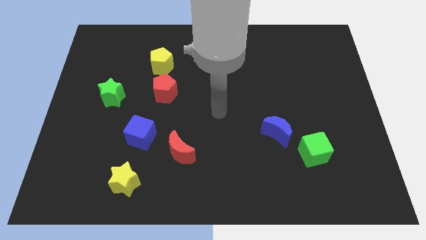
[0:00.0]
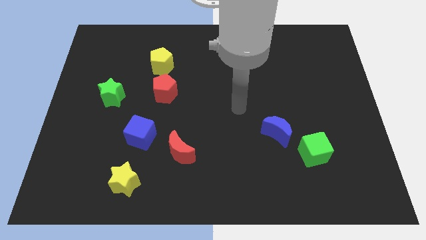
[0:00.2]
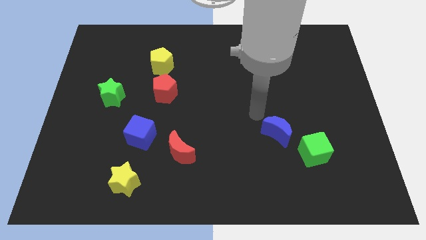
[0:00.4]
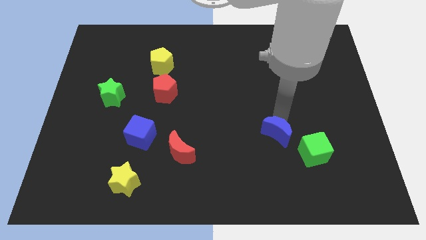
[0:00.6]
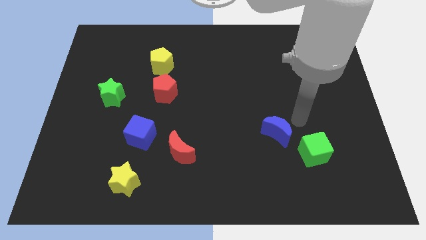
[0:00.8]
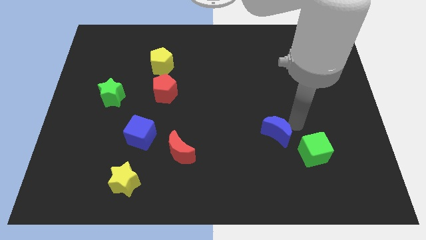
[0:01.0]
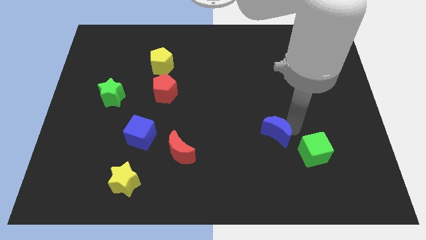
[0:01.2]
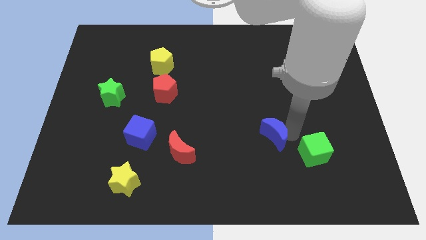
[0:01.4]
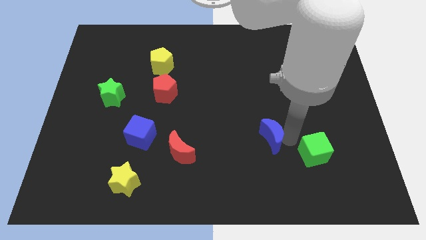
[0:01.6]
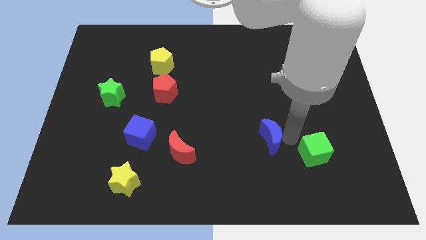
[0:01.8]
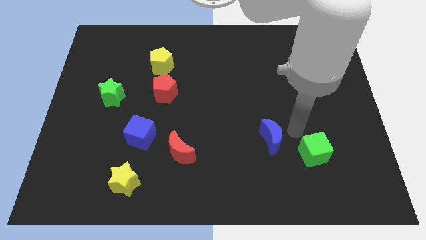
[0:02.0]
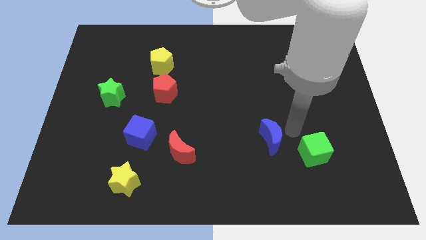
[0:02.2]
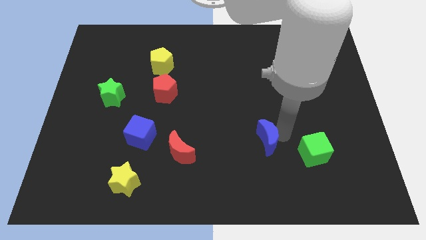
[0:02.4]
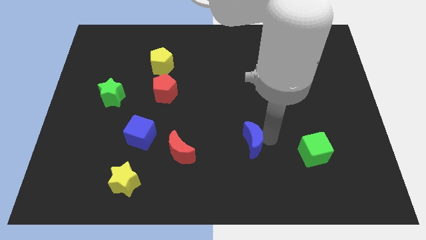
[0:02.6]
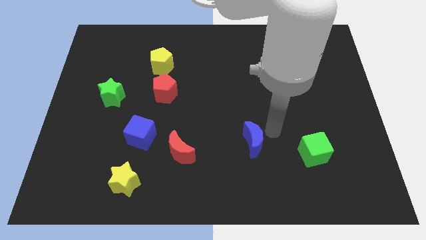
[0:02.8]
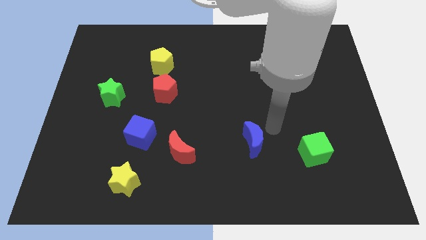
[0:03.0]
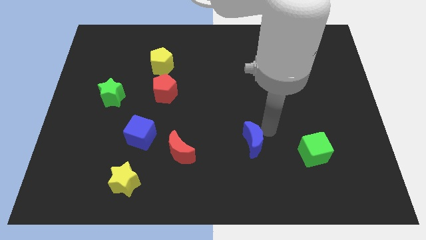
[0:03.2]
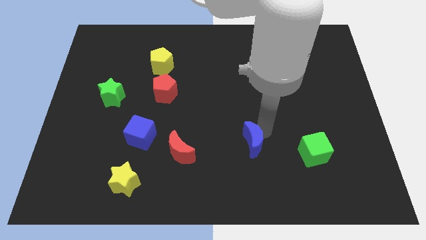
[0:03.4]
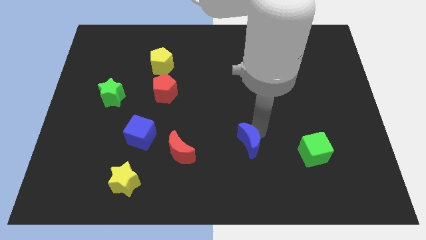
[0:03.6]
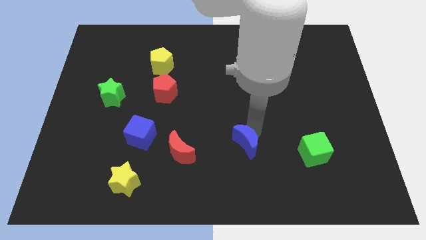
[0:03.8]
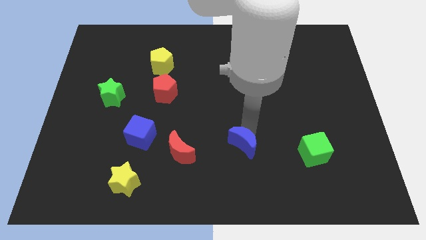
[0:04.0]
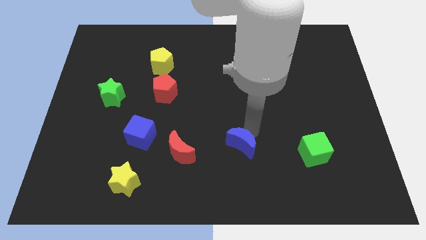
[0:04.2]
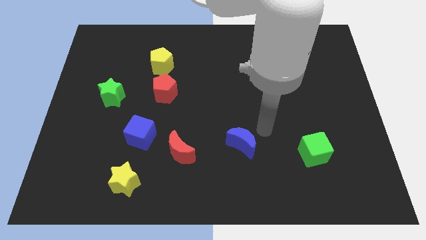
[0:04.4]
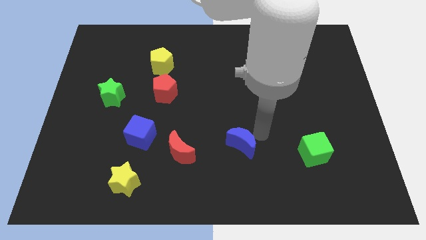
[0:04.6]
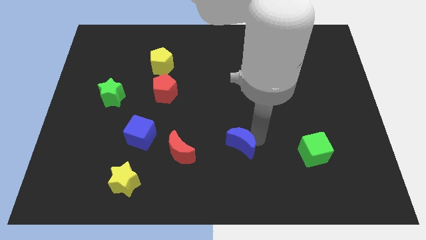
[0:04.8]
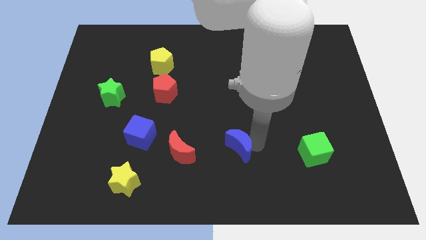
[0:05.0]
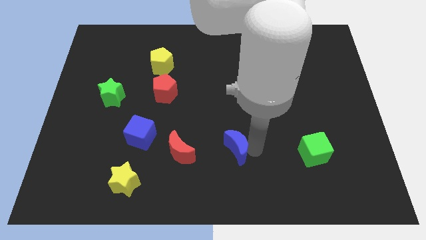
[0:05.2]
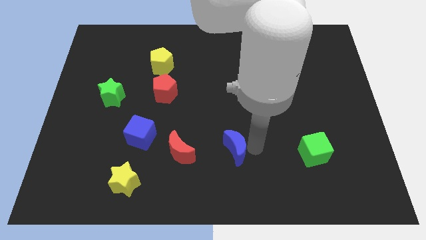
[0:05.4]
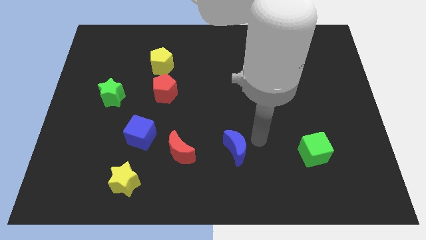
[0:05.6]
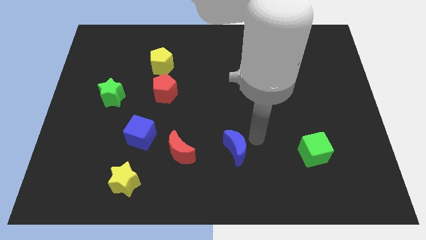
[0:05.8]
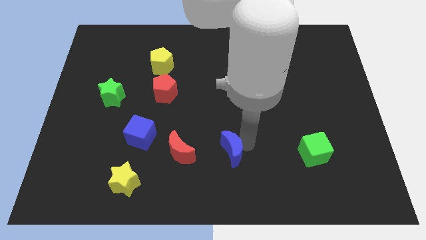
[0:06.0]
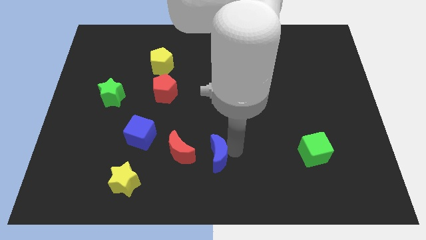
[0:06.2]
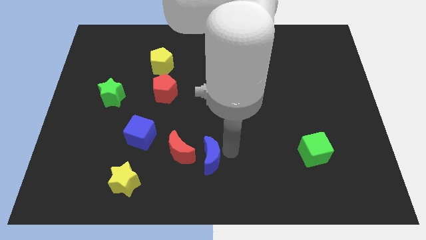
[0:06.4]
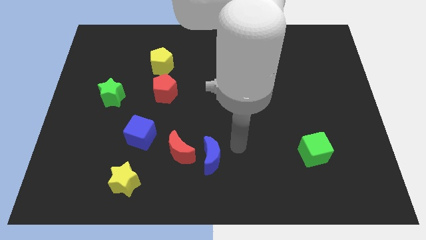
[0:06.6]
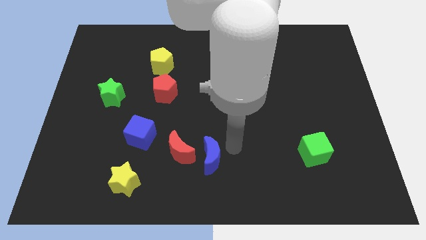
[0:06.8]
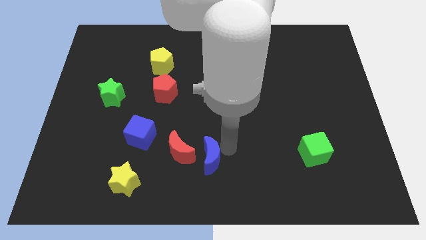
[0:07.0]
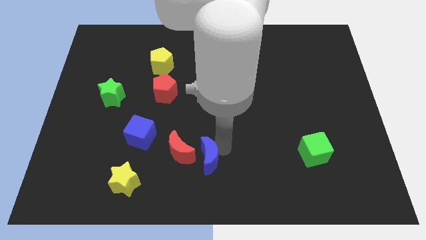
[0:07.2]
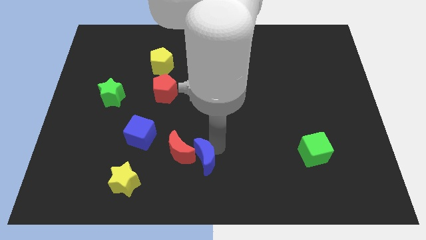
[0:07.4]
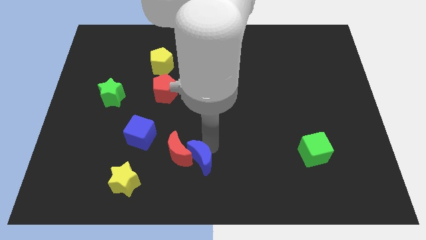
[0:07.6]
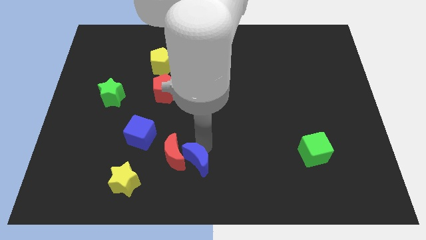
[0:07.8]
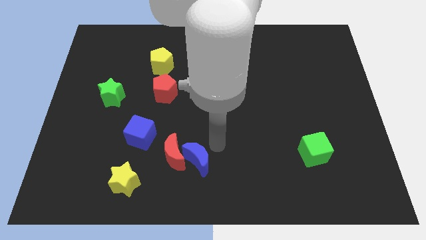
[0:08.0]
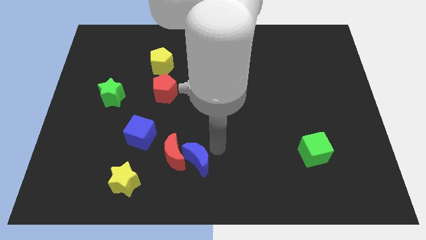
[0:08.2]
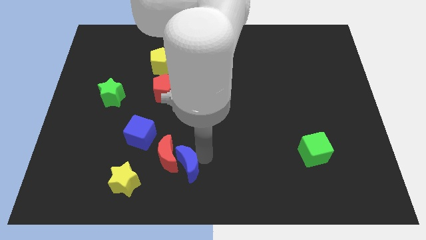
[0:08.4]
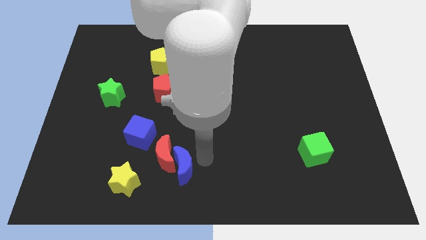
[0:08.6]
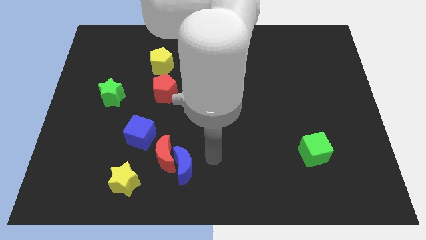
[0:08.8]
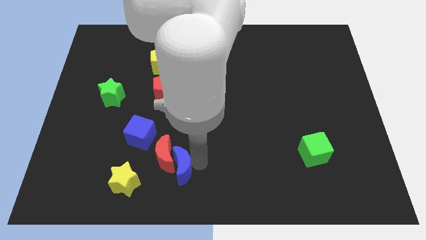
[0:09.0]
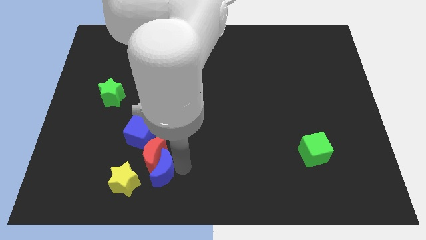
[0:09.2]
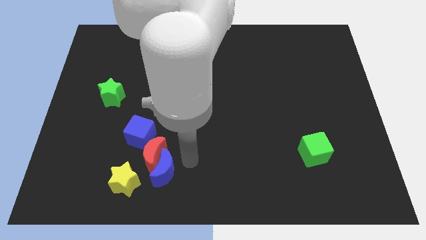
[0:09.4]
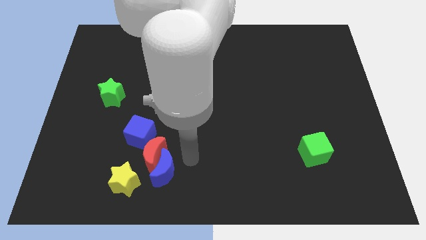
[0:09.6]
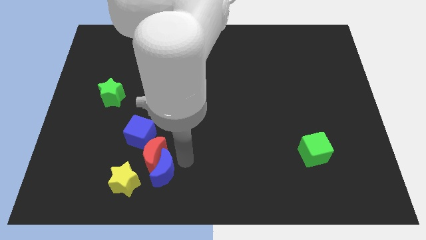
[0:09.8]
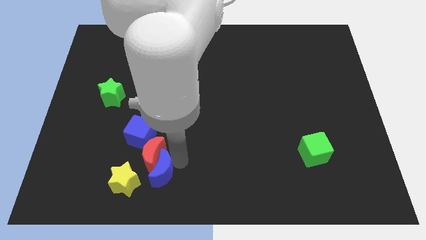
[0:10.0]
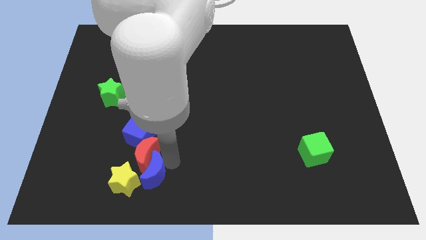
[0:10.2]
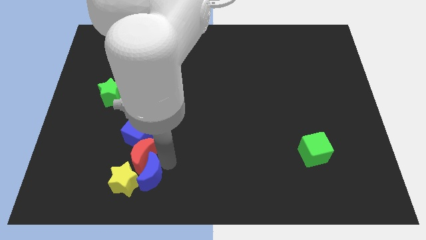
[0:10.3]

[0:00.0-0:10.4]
put the blue moon to the yellow star

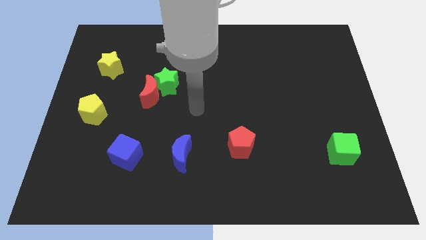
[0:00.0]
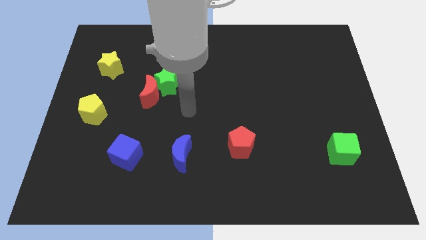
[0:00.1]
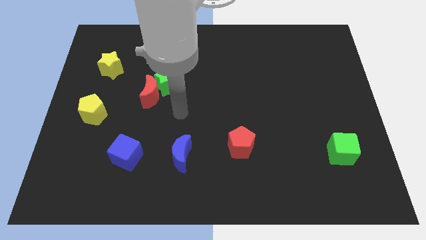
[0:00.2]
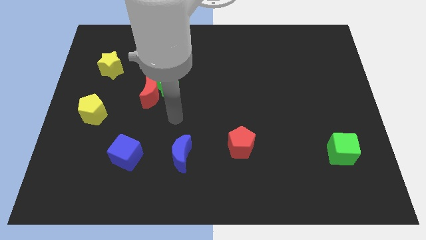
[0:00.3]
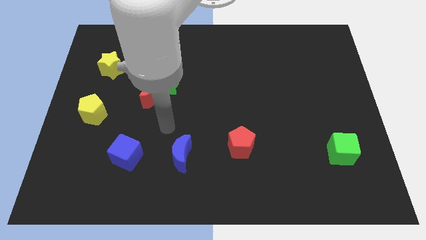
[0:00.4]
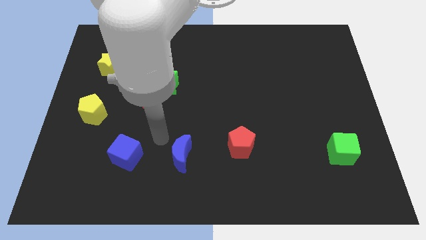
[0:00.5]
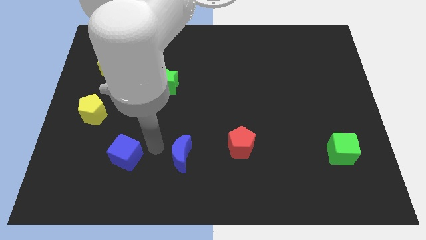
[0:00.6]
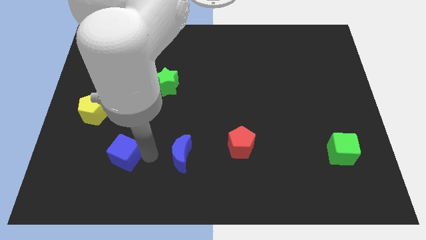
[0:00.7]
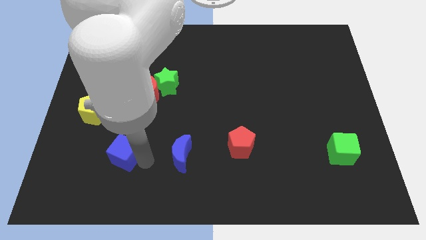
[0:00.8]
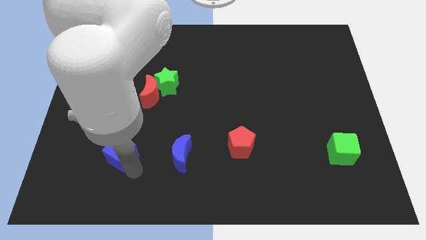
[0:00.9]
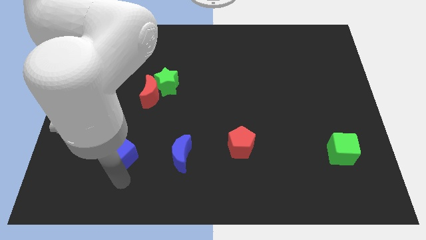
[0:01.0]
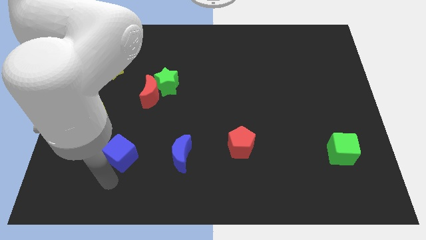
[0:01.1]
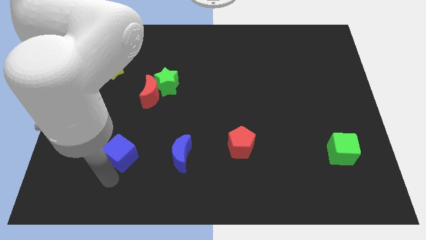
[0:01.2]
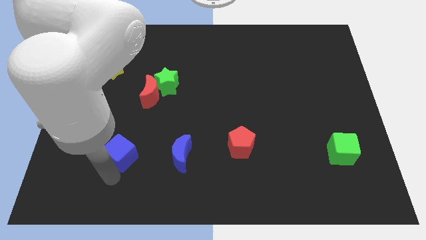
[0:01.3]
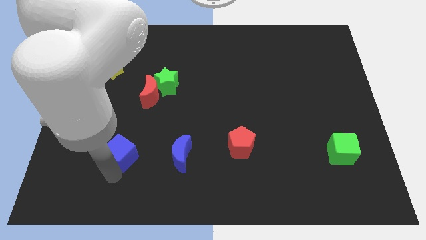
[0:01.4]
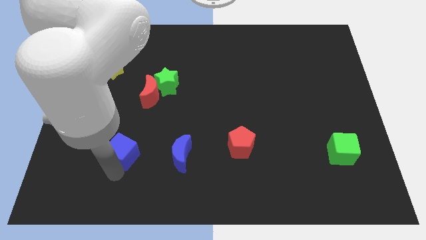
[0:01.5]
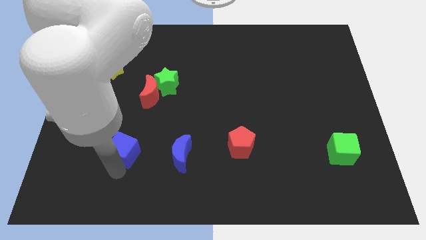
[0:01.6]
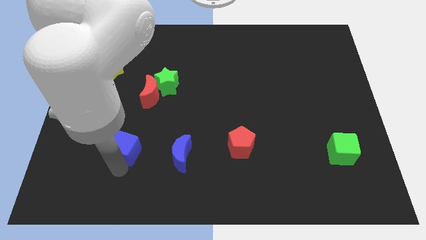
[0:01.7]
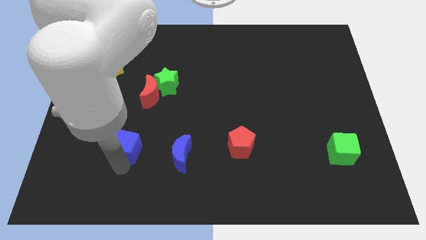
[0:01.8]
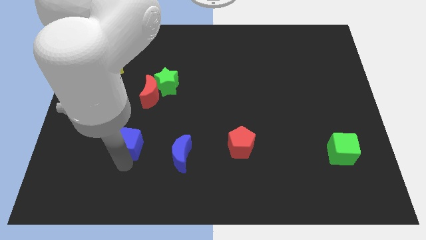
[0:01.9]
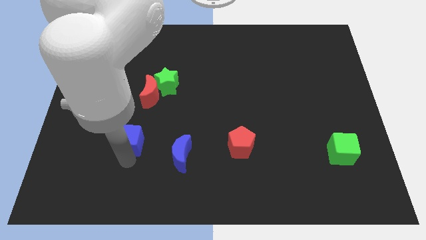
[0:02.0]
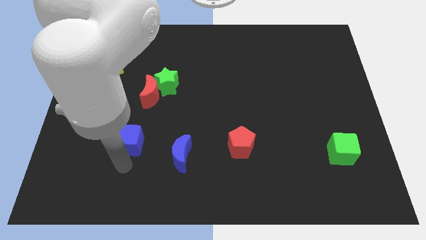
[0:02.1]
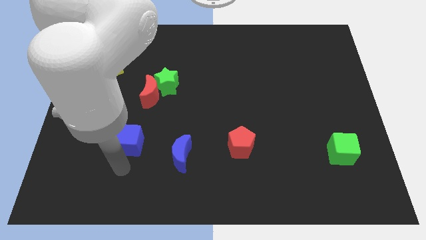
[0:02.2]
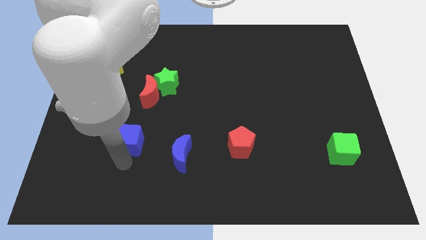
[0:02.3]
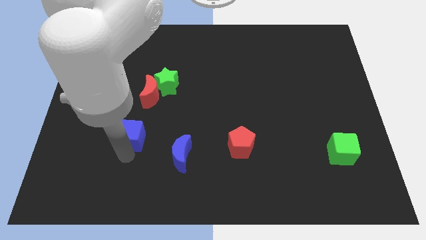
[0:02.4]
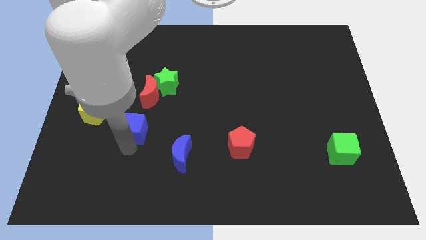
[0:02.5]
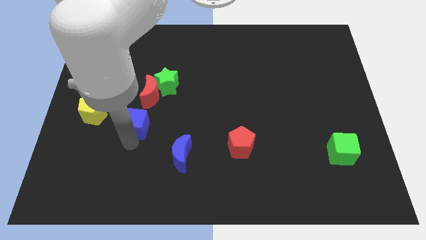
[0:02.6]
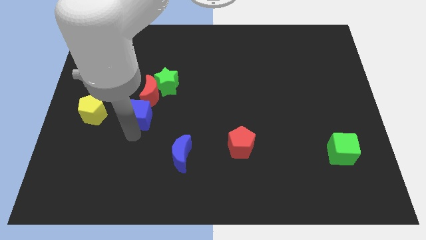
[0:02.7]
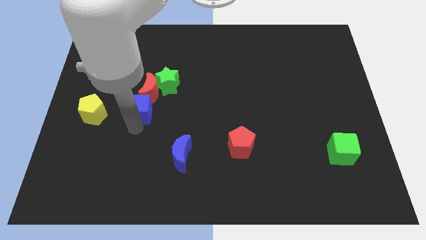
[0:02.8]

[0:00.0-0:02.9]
slide the blue cube next to the red moon

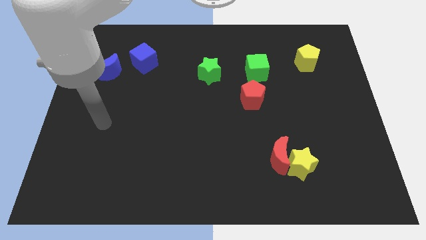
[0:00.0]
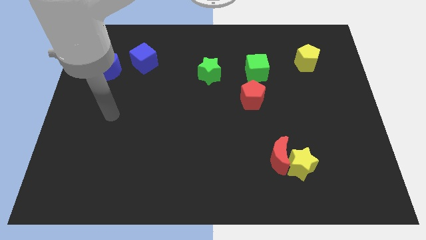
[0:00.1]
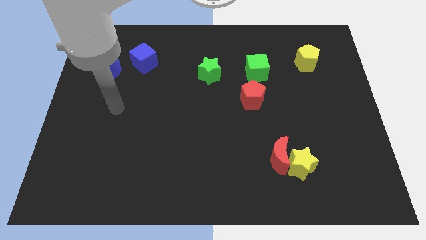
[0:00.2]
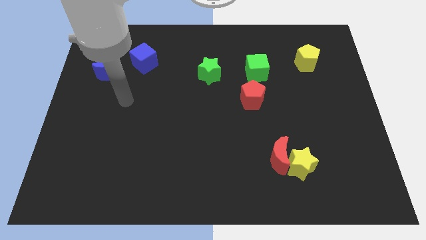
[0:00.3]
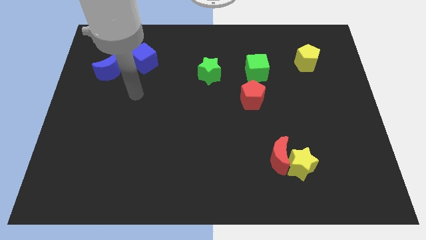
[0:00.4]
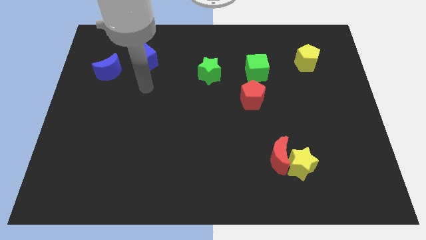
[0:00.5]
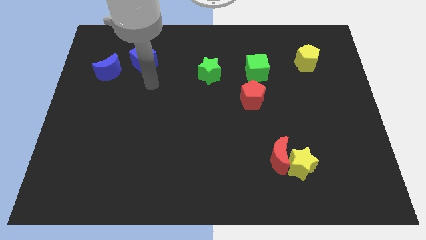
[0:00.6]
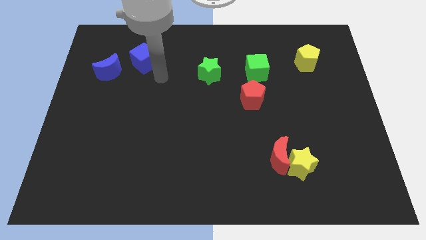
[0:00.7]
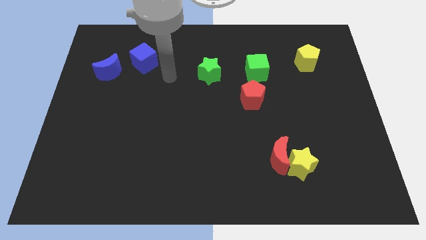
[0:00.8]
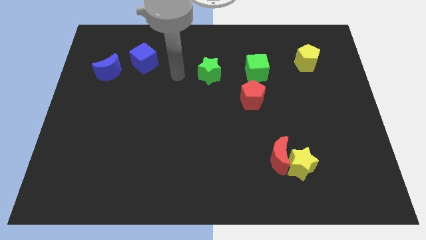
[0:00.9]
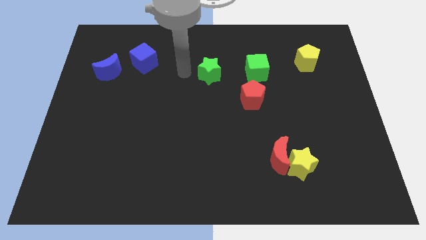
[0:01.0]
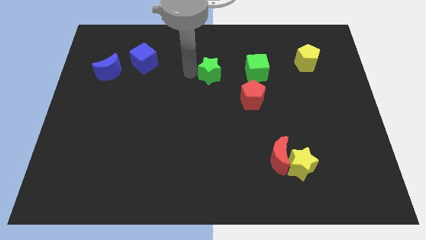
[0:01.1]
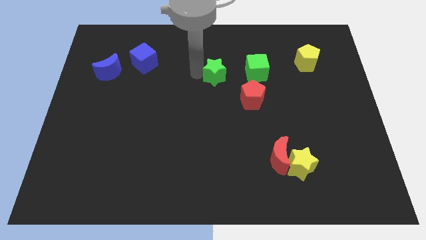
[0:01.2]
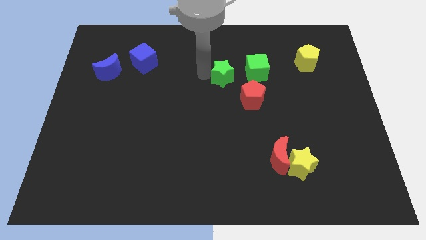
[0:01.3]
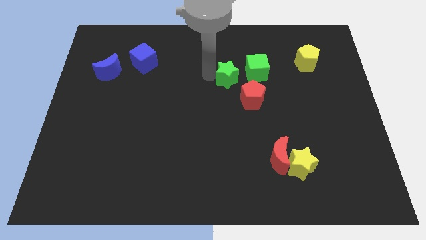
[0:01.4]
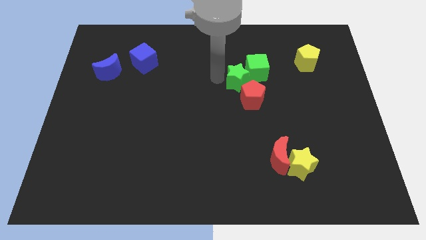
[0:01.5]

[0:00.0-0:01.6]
slide the green star close to the green cube
